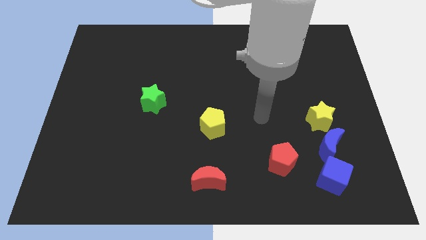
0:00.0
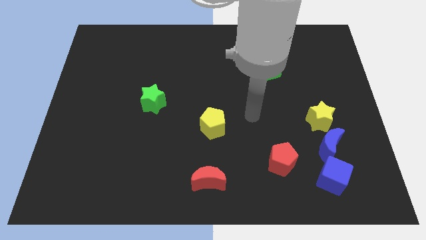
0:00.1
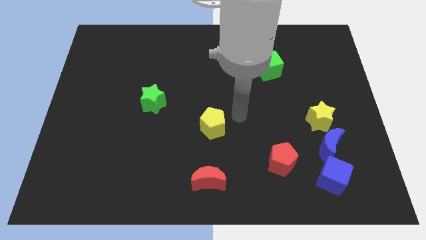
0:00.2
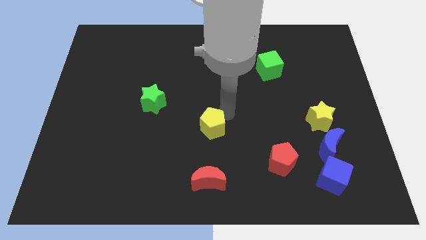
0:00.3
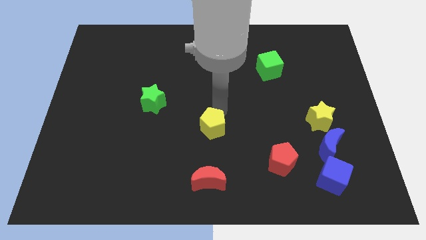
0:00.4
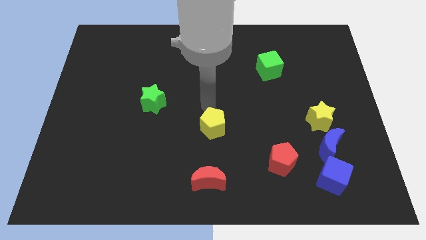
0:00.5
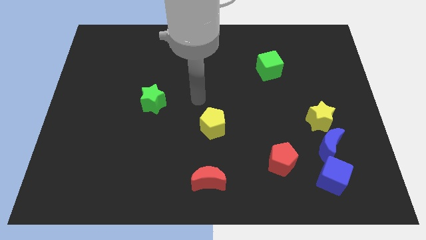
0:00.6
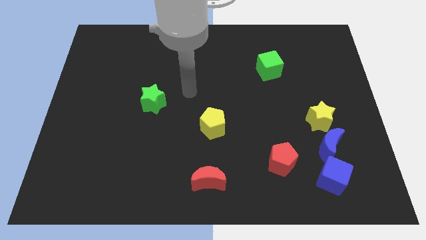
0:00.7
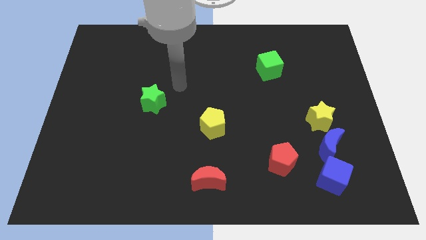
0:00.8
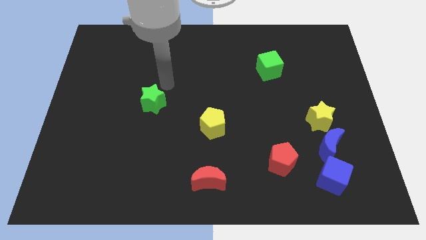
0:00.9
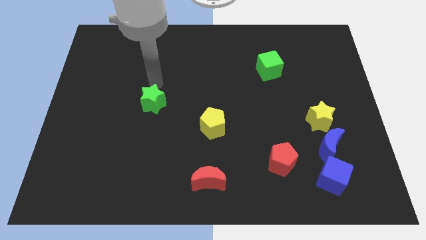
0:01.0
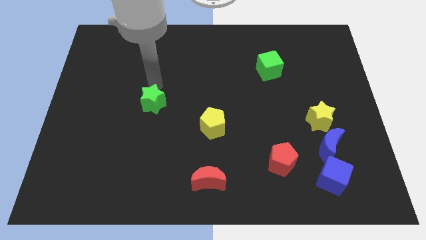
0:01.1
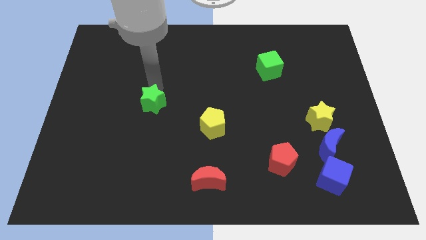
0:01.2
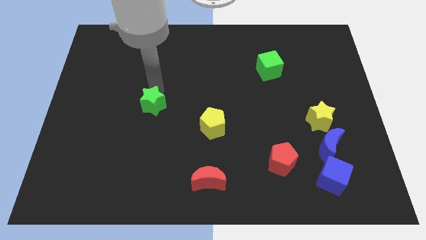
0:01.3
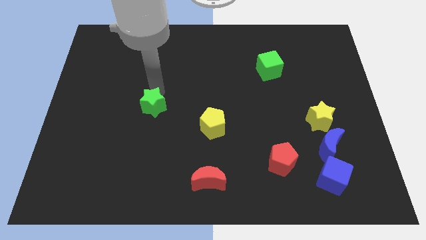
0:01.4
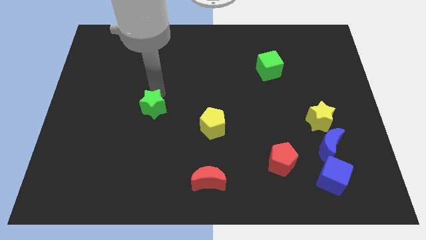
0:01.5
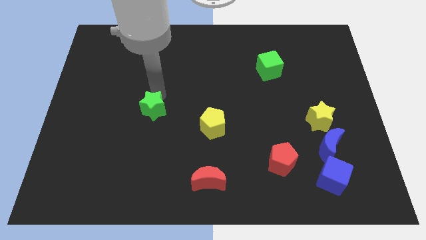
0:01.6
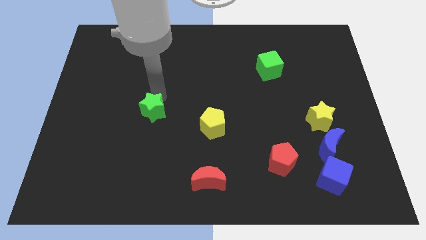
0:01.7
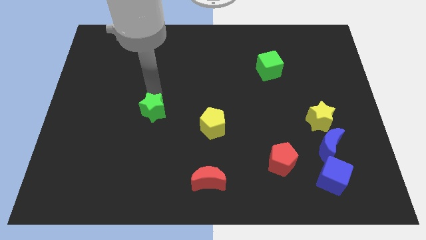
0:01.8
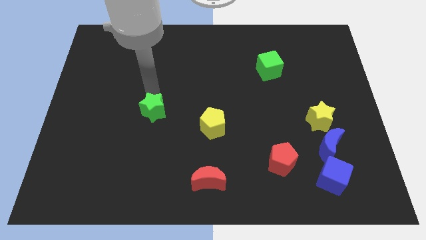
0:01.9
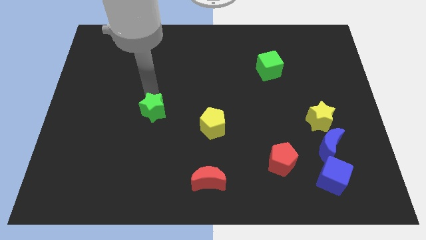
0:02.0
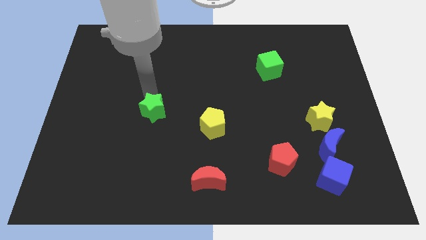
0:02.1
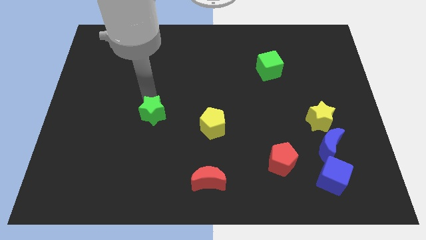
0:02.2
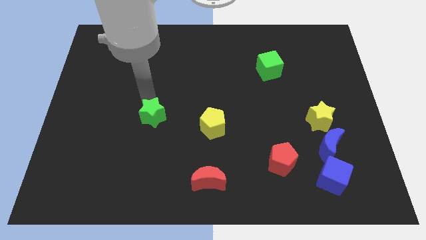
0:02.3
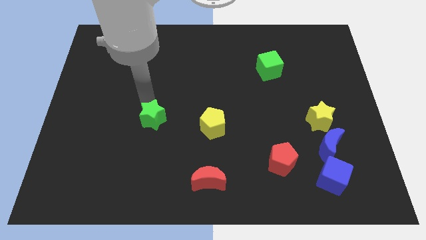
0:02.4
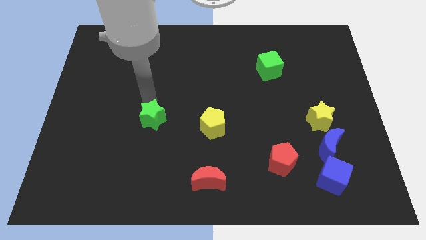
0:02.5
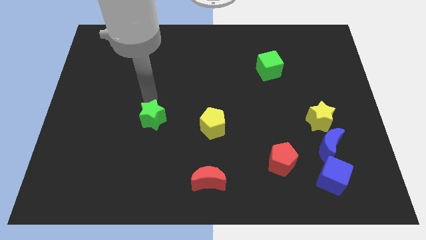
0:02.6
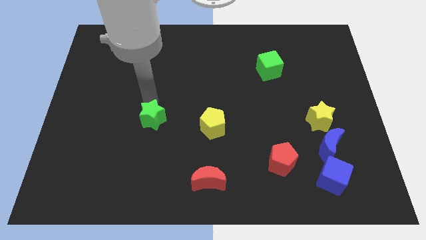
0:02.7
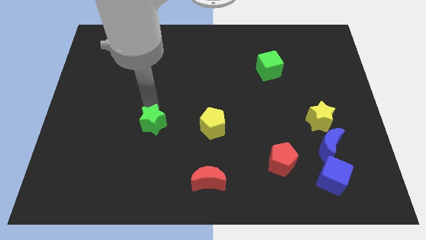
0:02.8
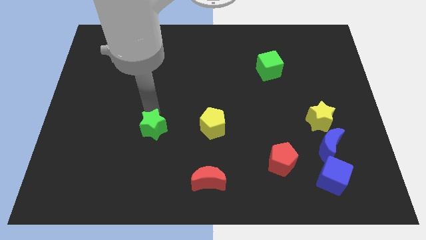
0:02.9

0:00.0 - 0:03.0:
move the green star down slightly

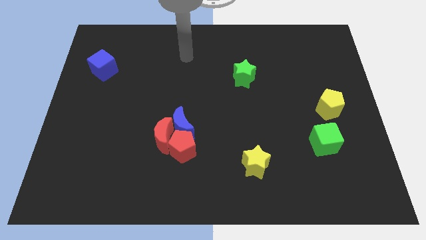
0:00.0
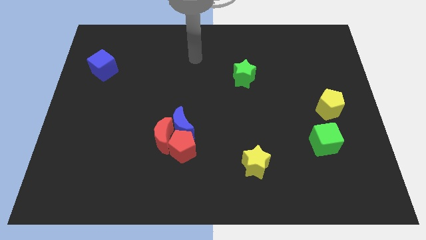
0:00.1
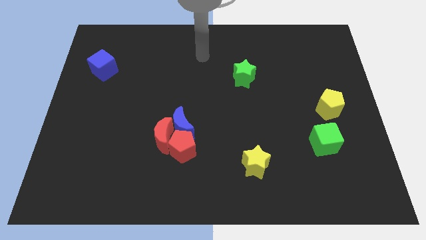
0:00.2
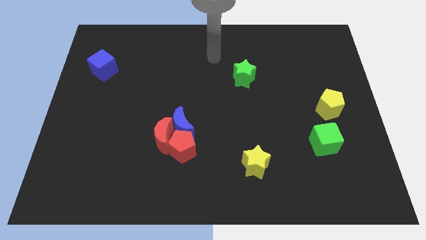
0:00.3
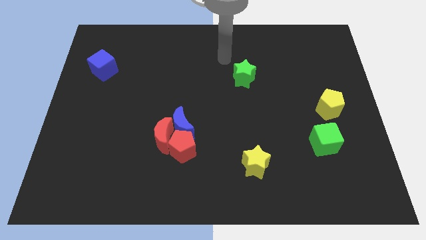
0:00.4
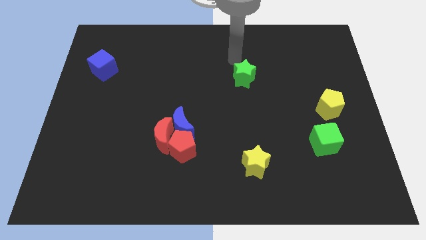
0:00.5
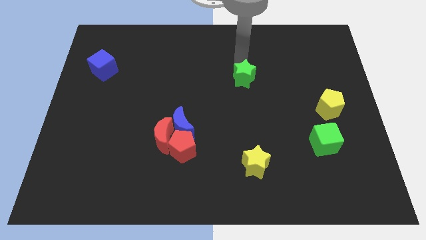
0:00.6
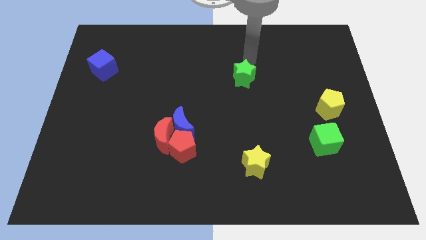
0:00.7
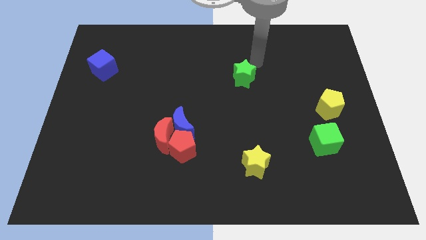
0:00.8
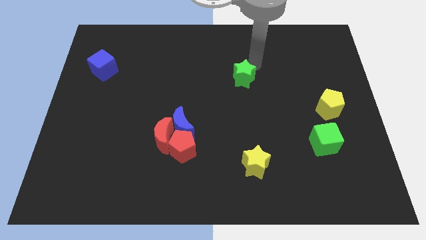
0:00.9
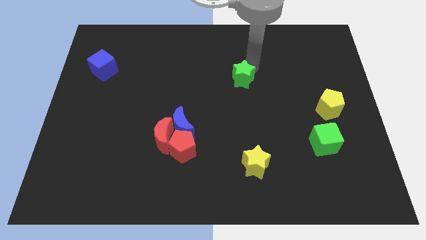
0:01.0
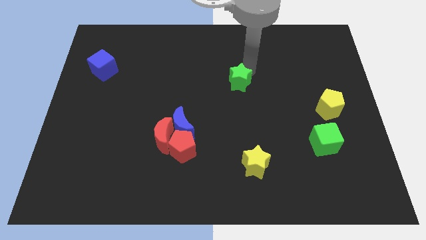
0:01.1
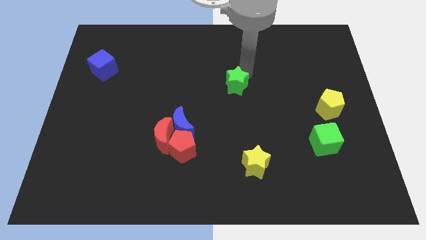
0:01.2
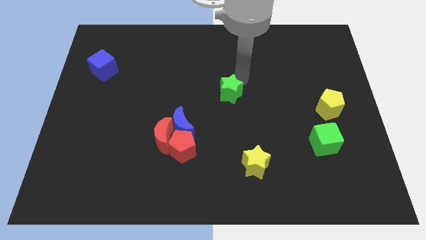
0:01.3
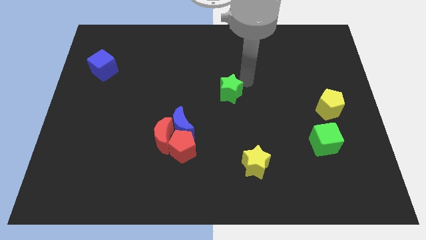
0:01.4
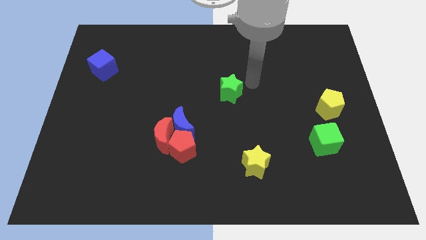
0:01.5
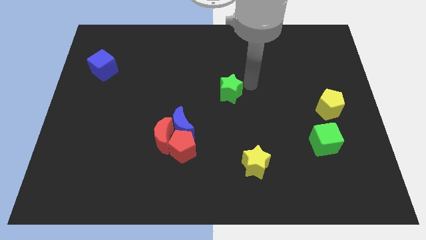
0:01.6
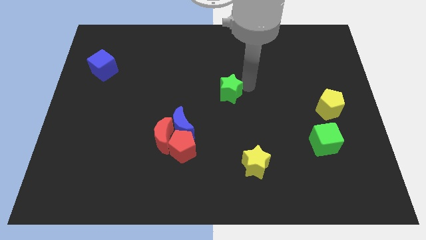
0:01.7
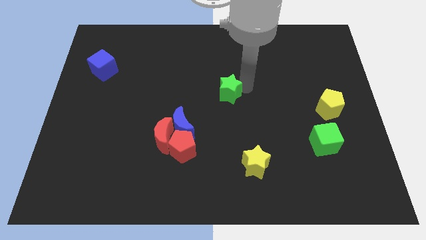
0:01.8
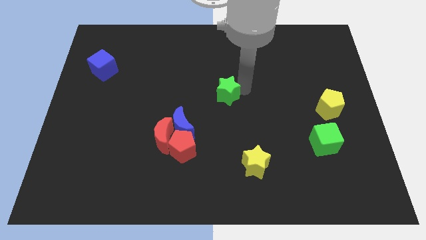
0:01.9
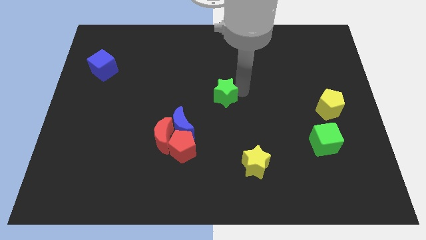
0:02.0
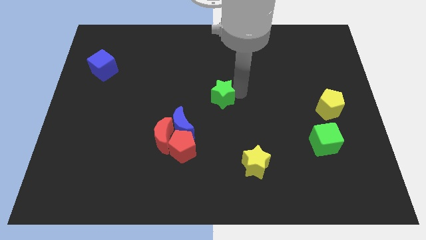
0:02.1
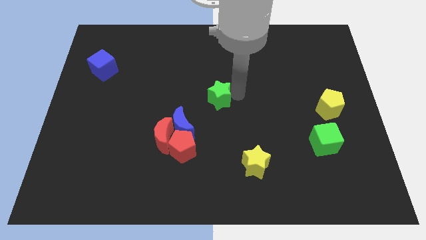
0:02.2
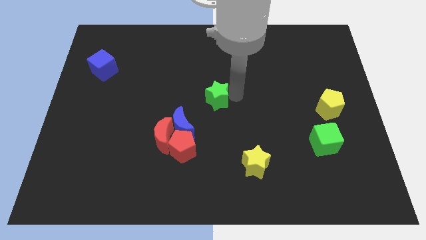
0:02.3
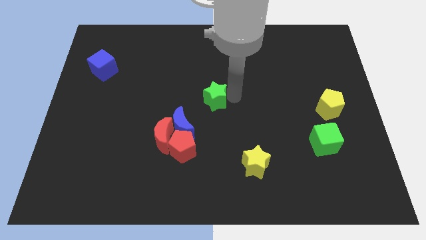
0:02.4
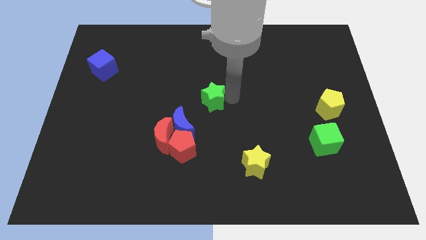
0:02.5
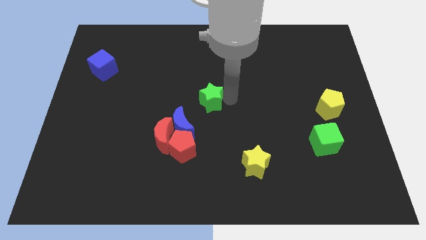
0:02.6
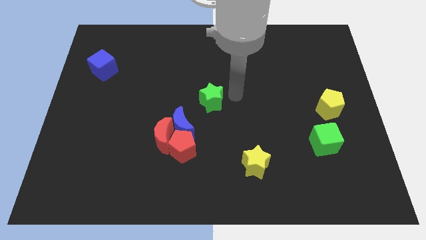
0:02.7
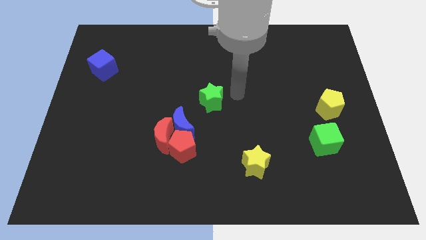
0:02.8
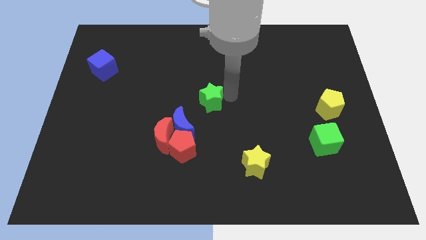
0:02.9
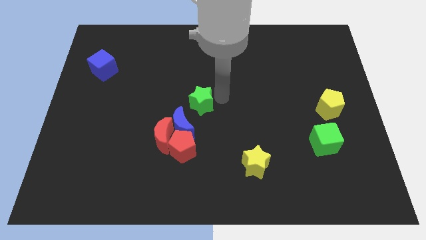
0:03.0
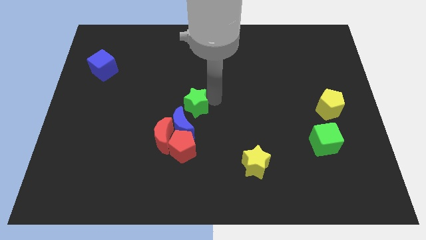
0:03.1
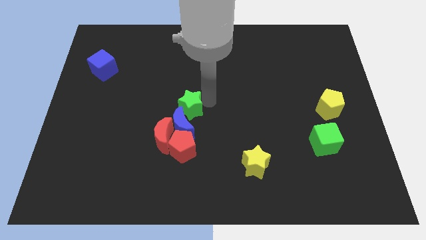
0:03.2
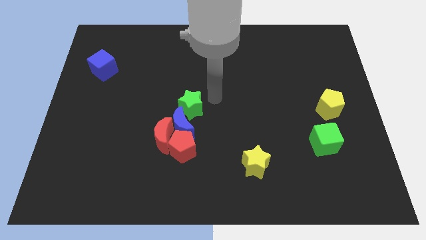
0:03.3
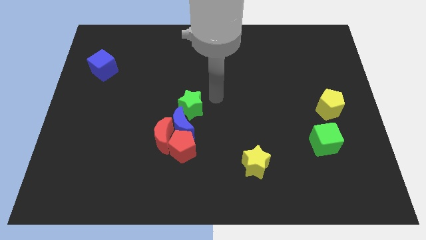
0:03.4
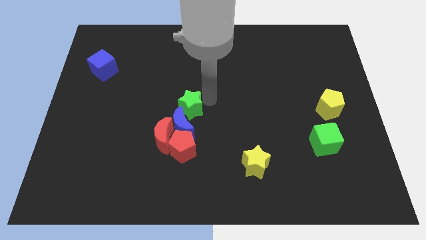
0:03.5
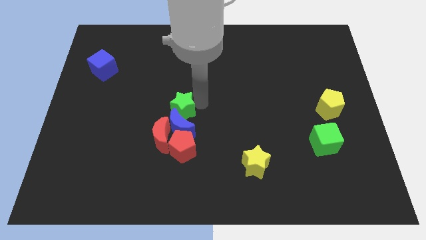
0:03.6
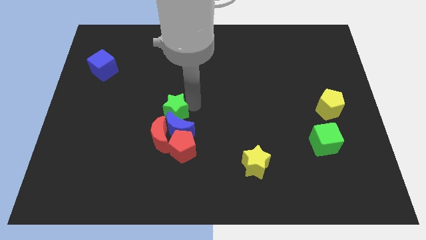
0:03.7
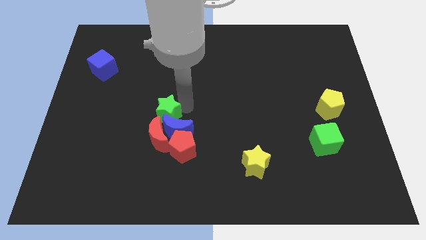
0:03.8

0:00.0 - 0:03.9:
slide the green star down and then to the left

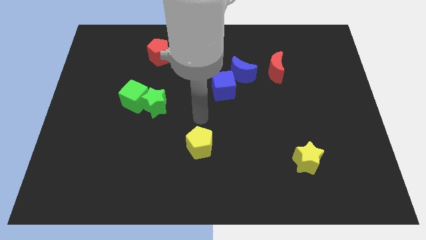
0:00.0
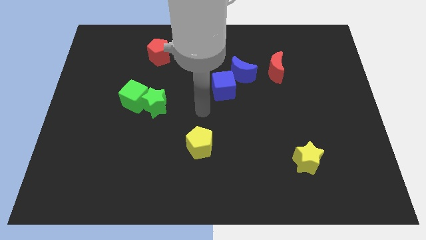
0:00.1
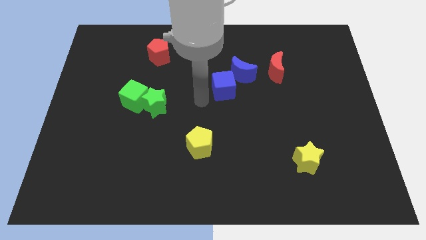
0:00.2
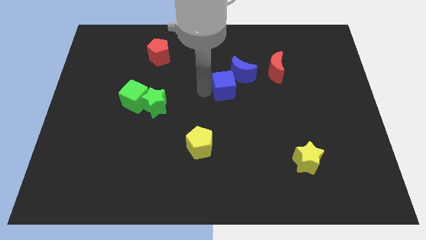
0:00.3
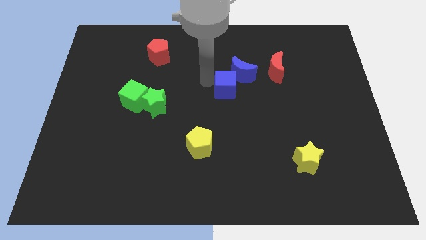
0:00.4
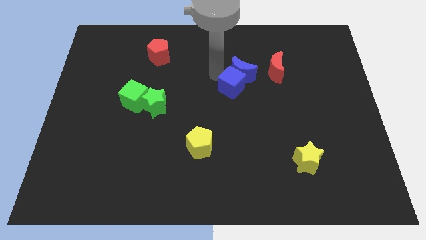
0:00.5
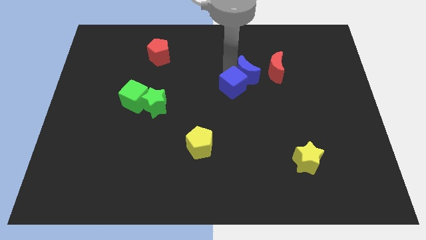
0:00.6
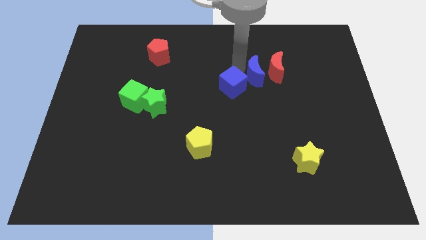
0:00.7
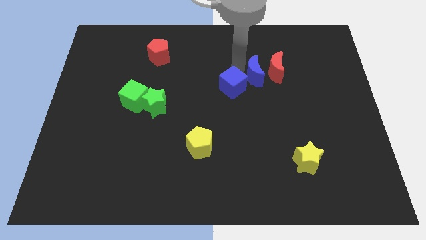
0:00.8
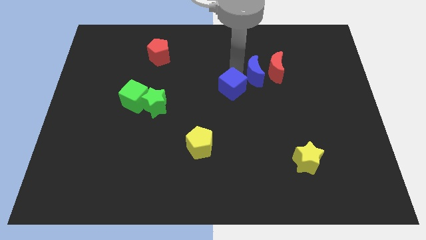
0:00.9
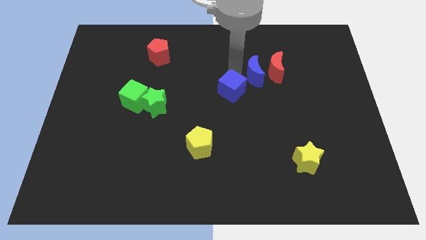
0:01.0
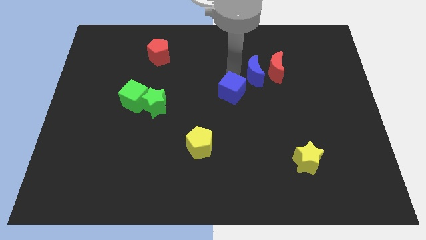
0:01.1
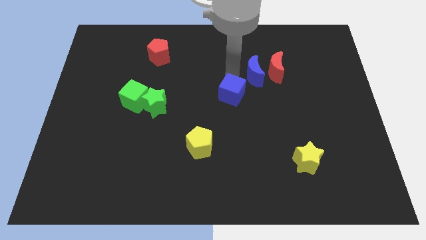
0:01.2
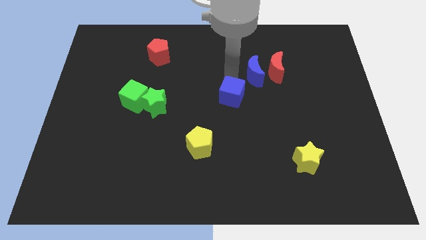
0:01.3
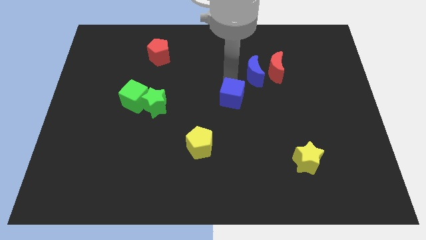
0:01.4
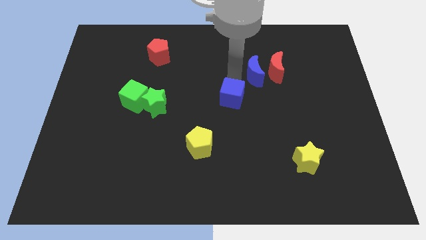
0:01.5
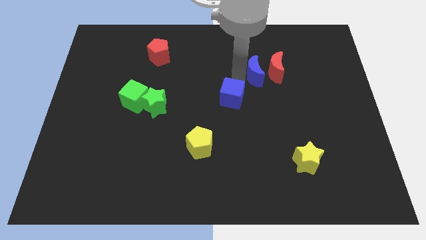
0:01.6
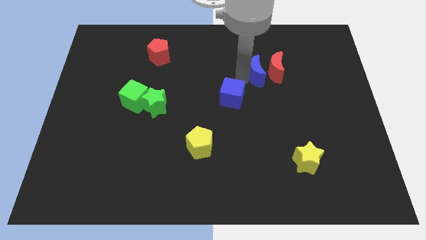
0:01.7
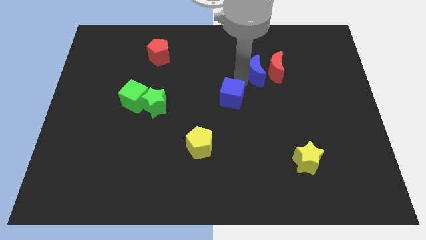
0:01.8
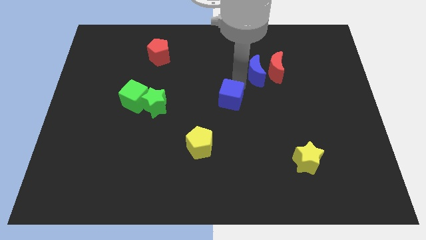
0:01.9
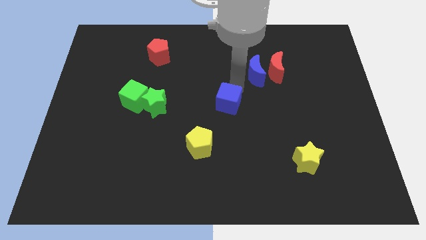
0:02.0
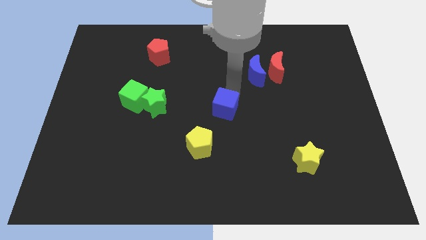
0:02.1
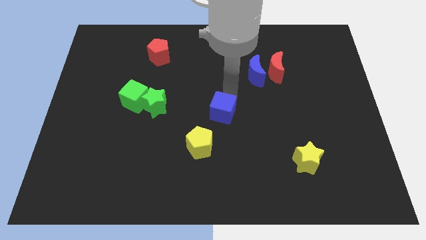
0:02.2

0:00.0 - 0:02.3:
push the blue cube slightly downwards
